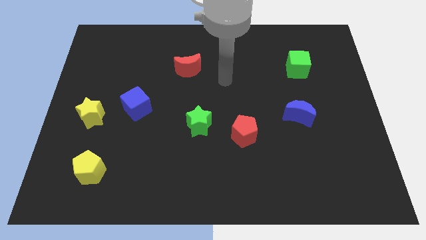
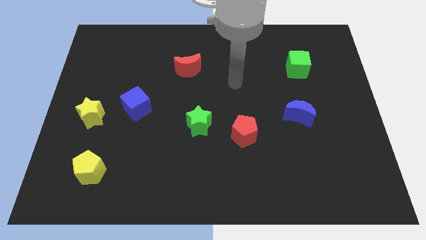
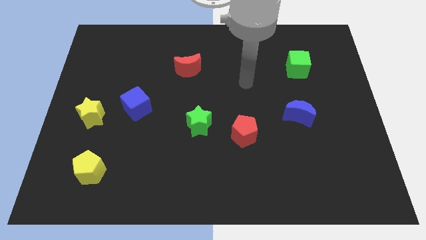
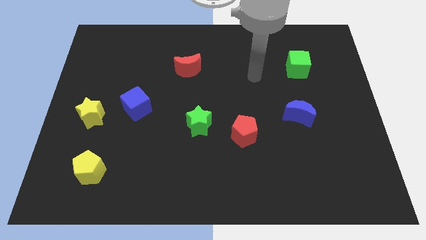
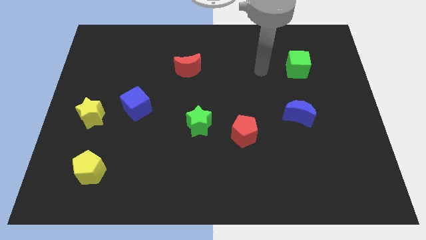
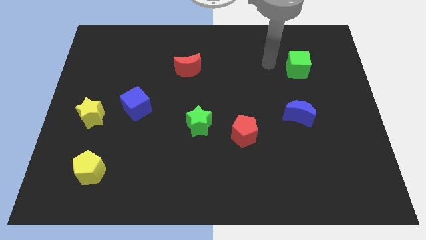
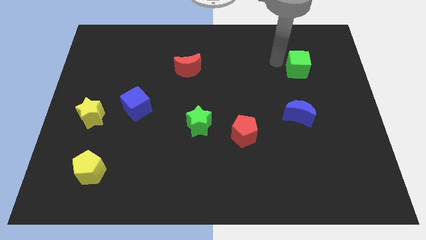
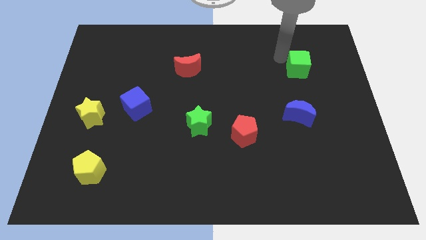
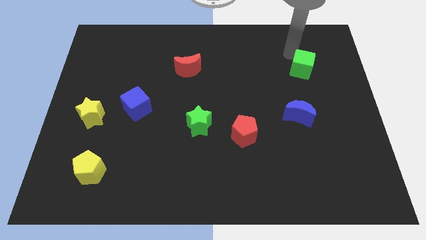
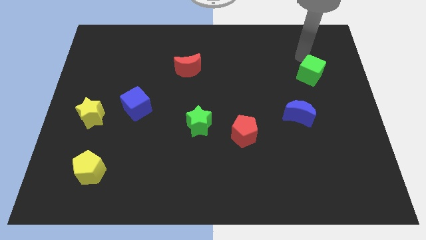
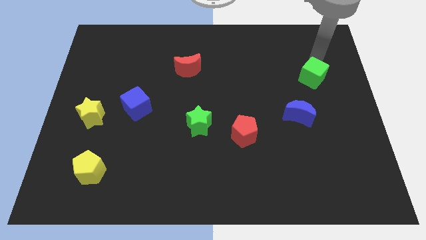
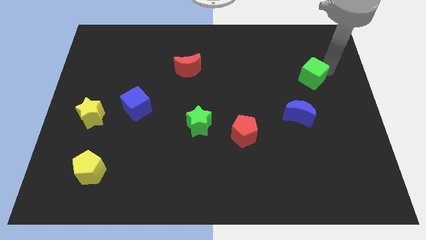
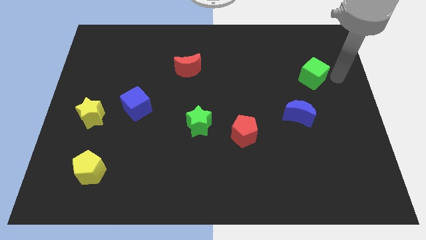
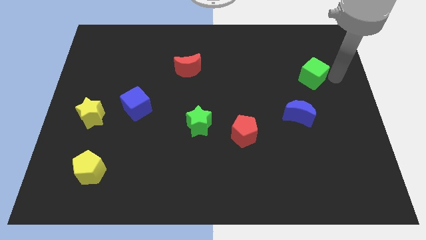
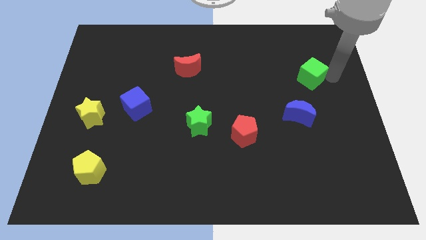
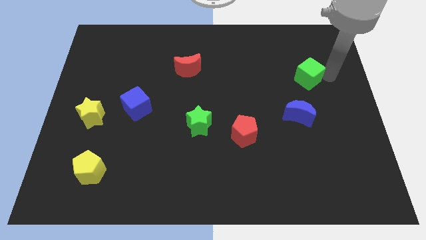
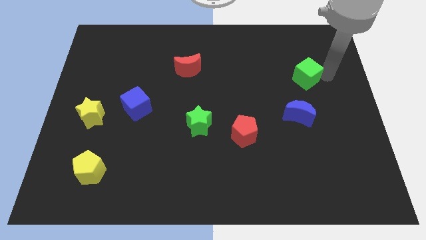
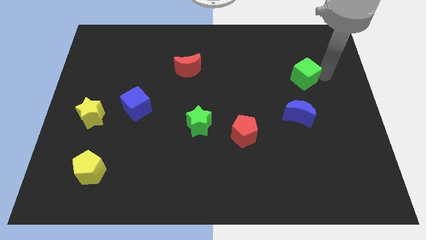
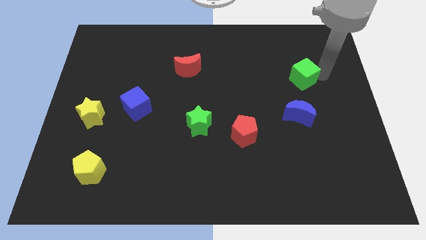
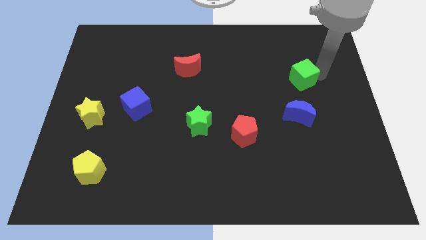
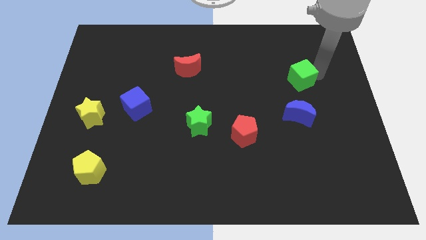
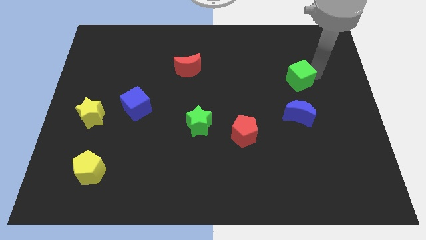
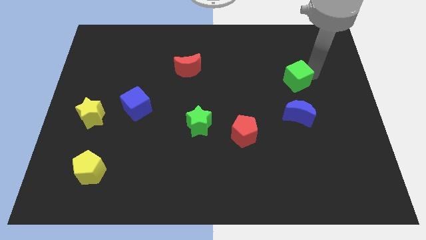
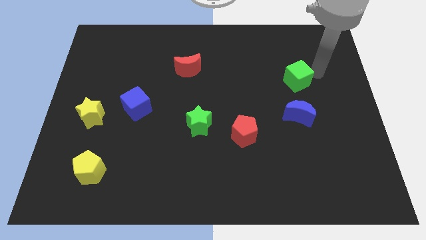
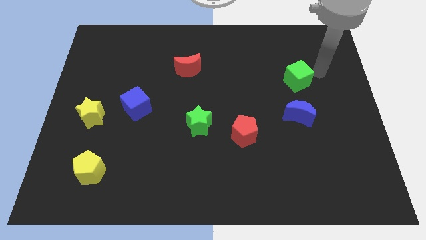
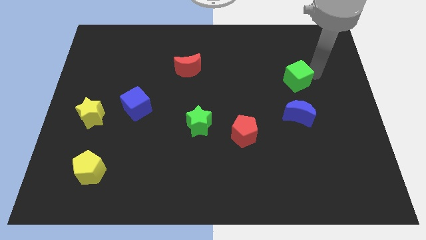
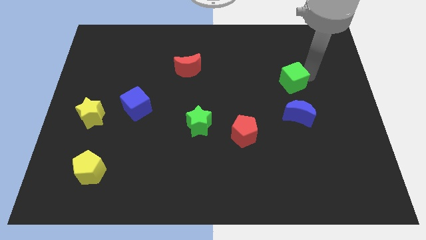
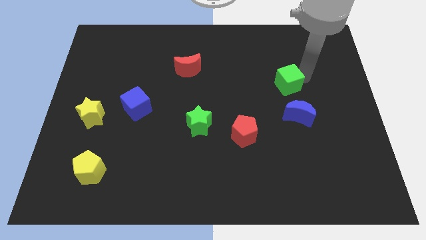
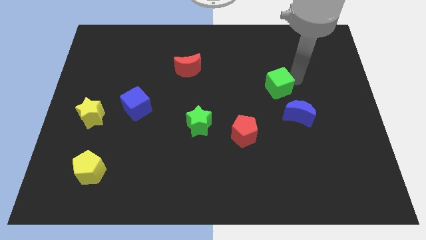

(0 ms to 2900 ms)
slide the green cube somewhat downwards and then to the left

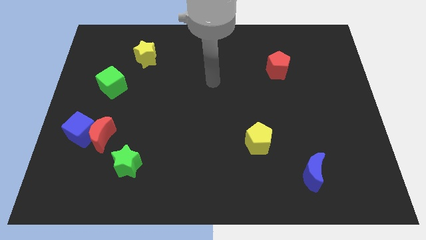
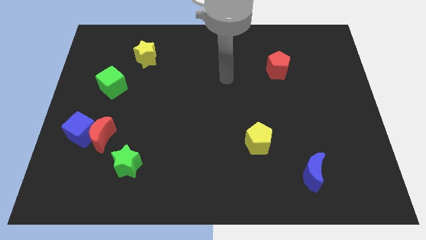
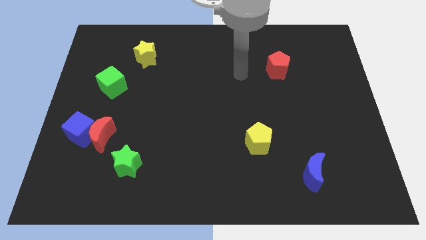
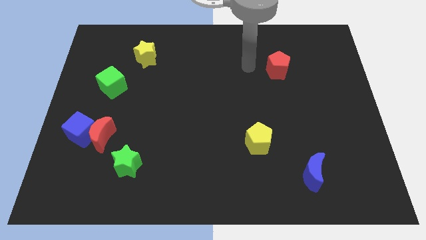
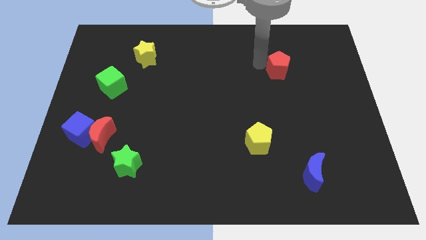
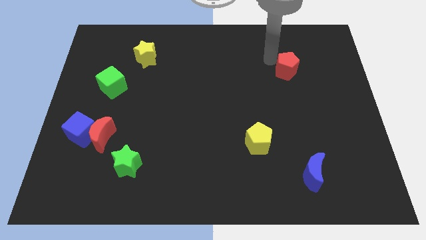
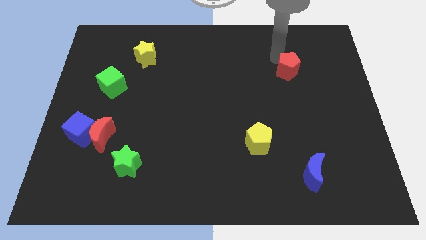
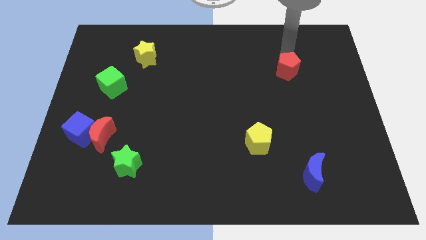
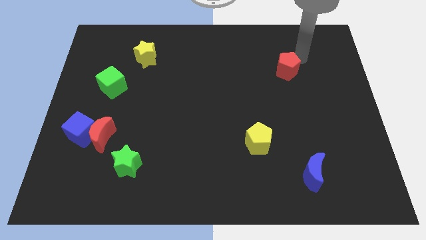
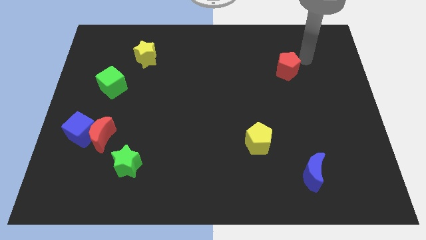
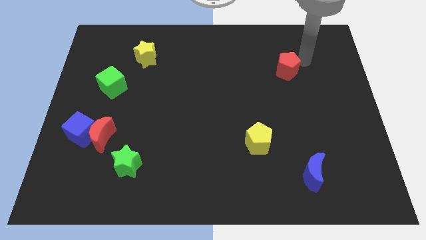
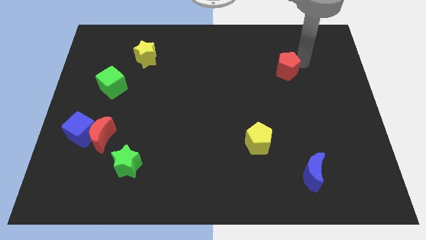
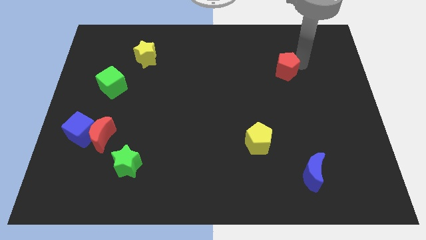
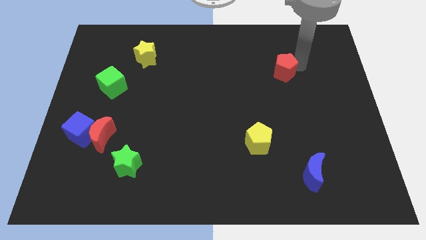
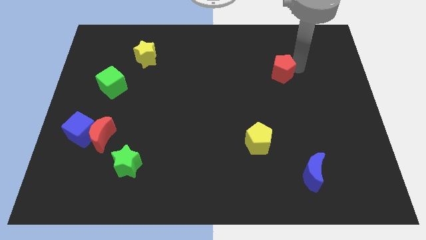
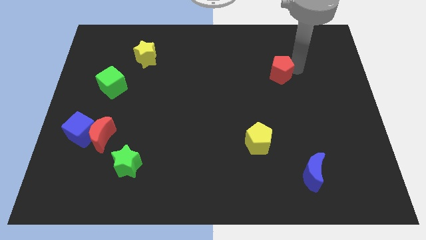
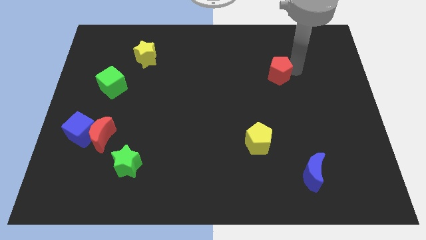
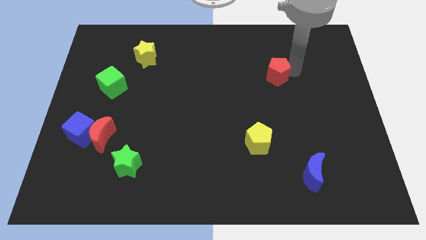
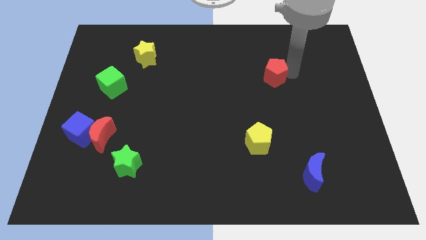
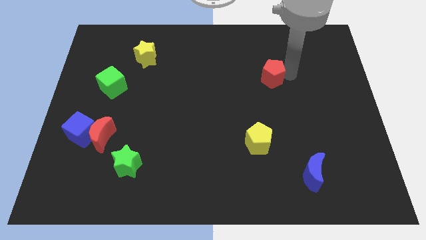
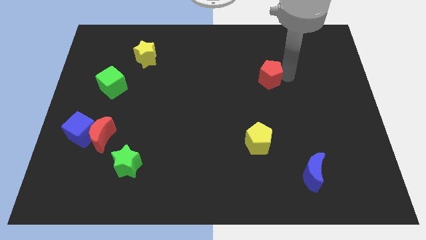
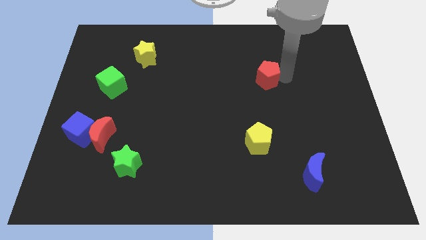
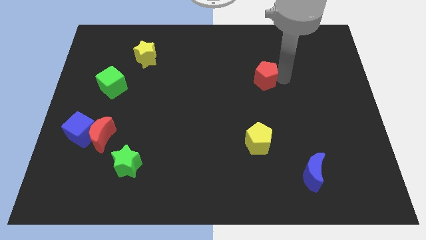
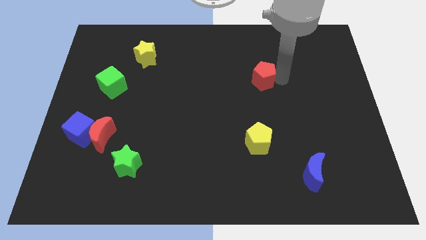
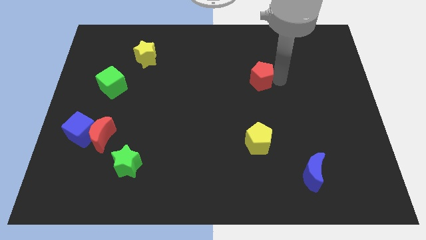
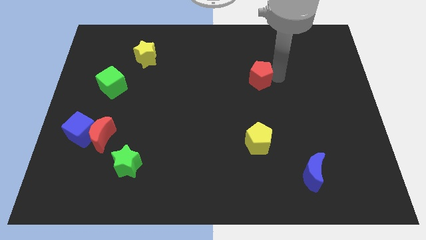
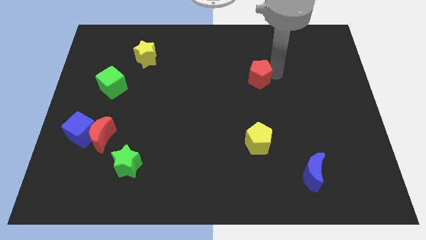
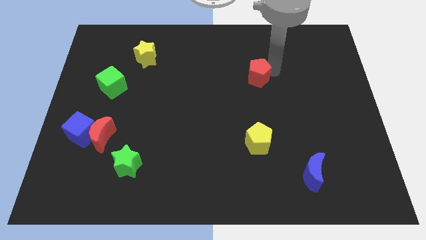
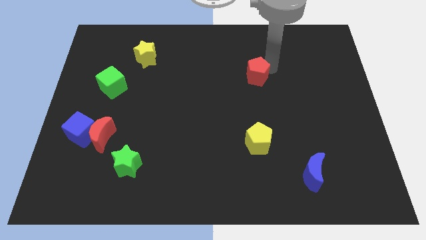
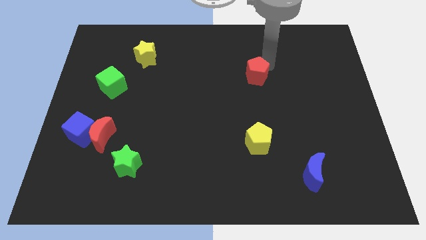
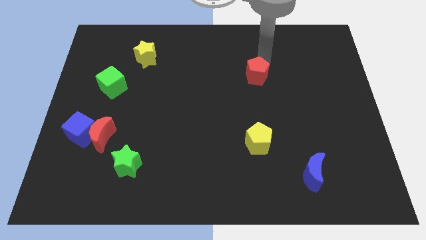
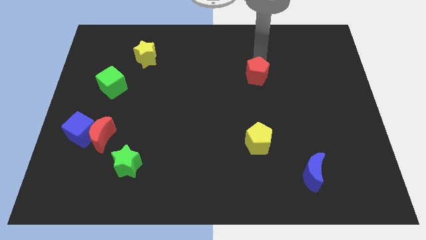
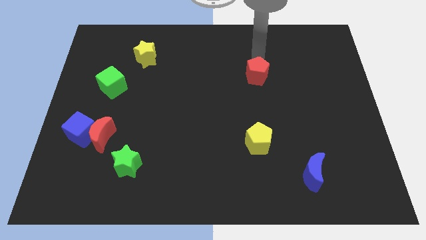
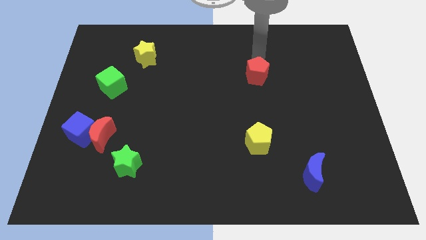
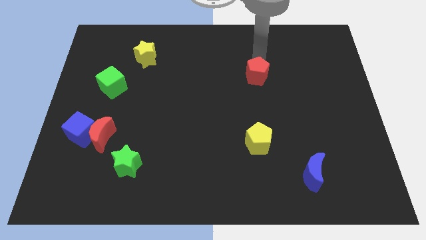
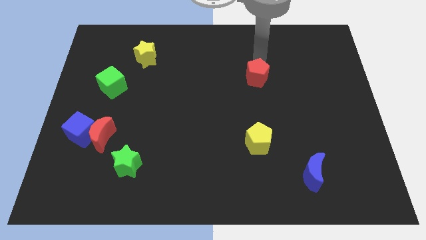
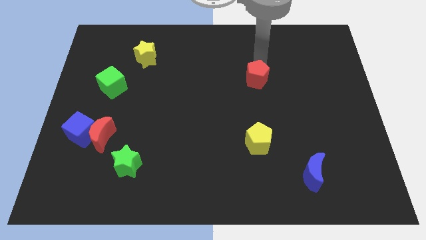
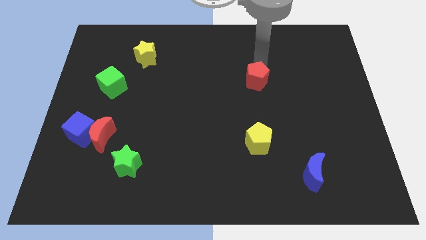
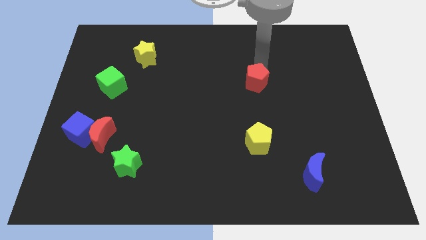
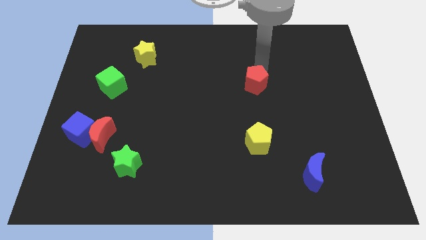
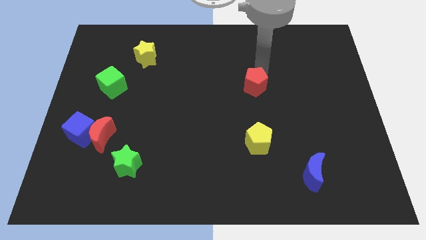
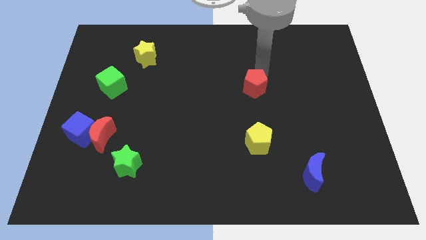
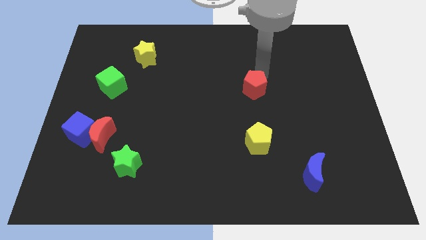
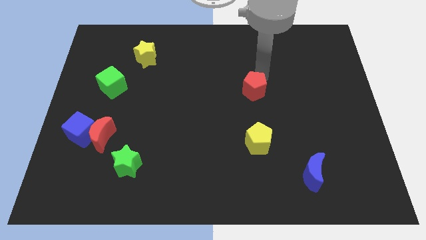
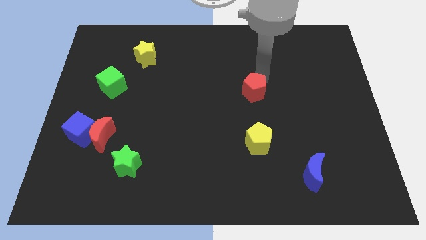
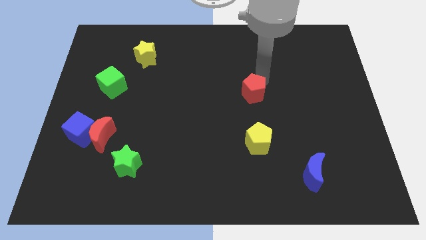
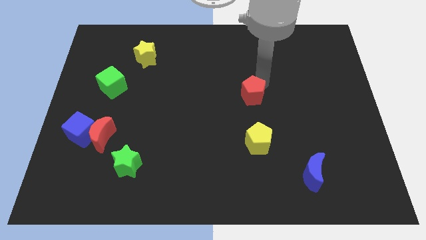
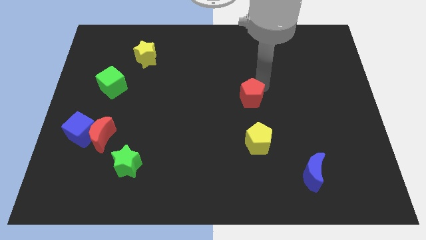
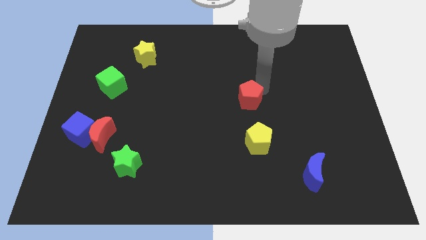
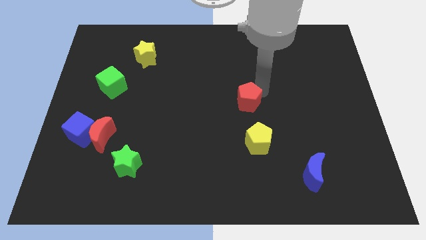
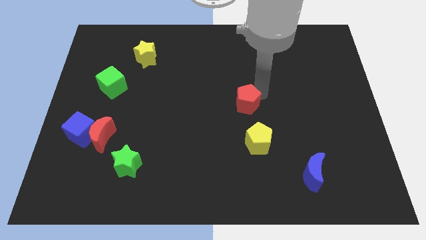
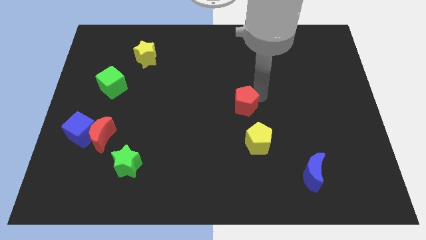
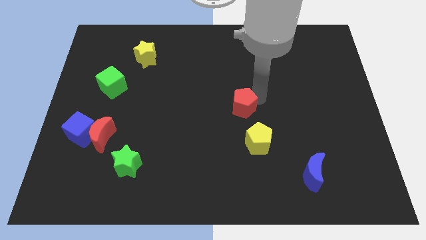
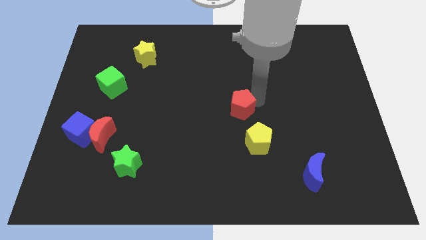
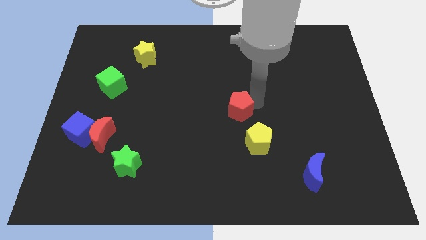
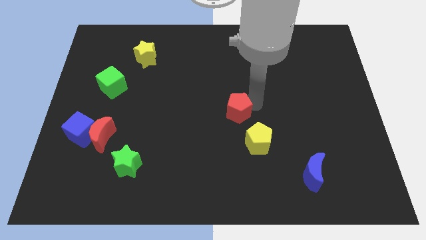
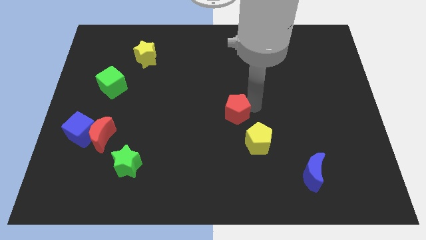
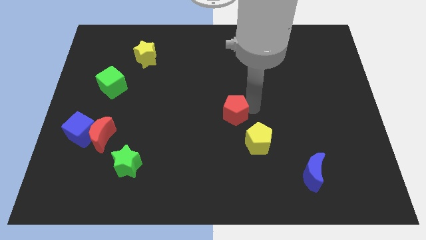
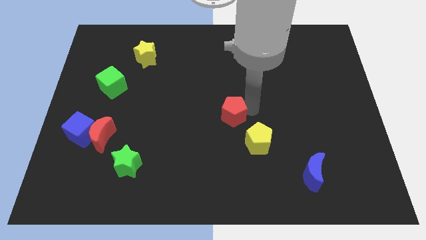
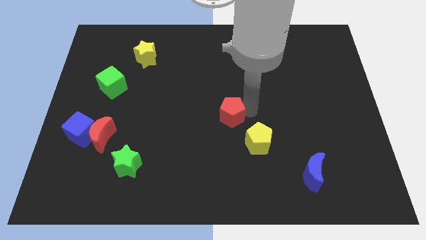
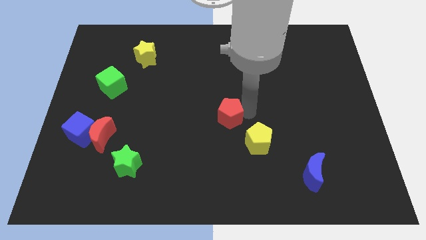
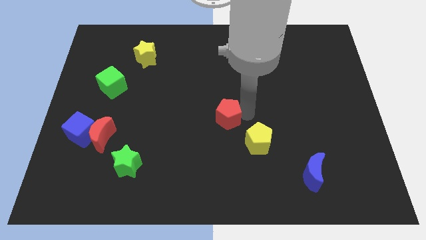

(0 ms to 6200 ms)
move the red pentagon downwards and to the left diagonally
